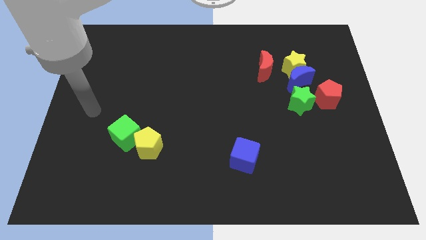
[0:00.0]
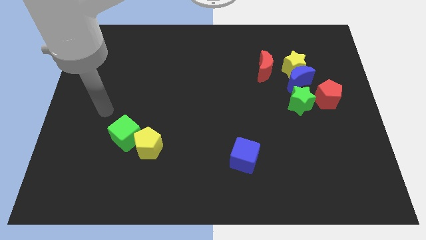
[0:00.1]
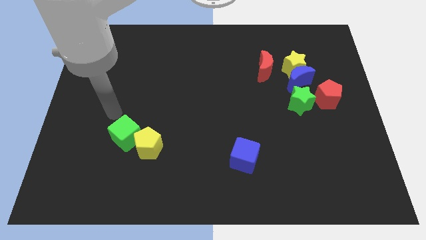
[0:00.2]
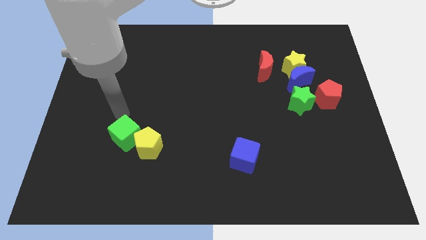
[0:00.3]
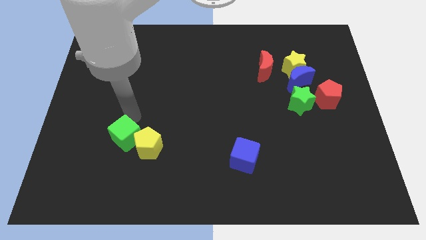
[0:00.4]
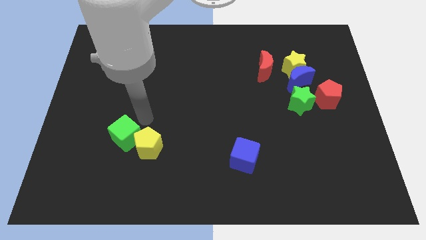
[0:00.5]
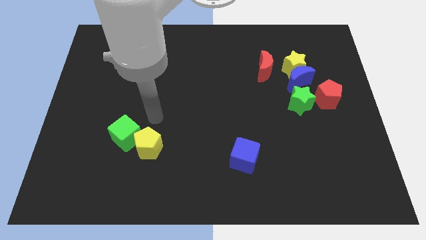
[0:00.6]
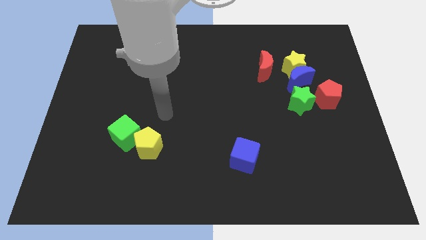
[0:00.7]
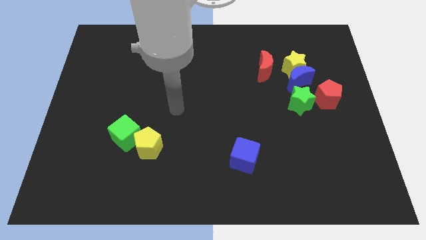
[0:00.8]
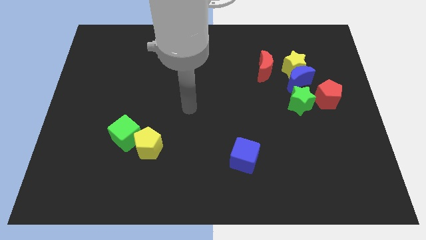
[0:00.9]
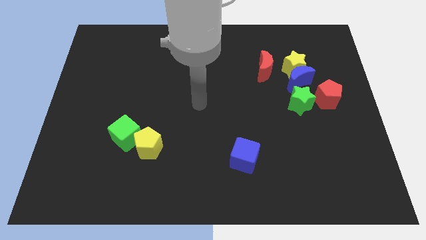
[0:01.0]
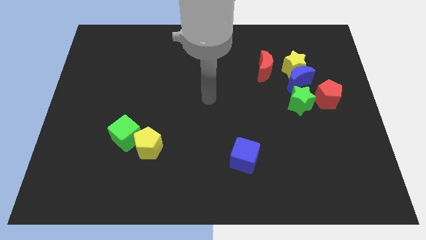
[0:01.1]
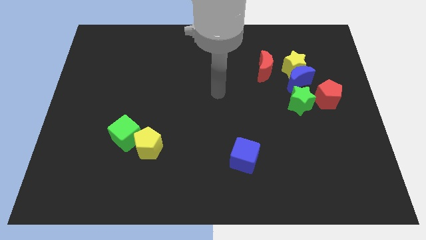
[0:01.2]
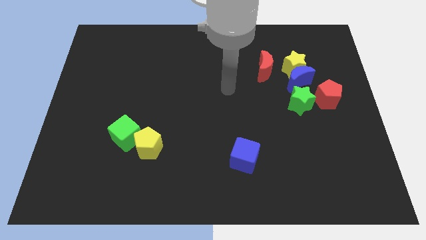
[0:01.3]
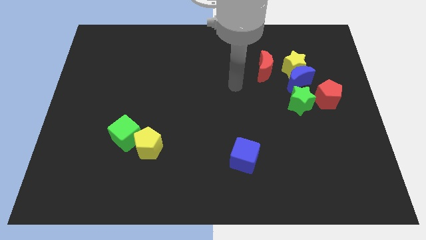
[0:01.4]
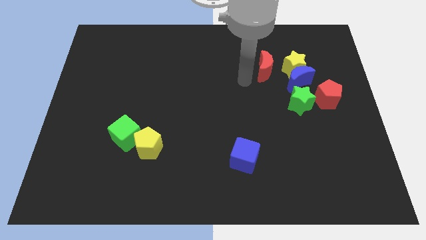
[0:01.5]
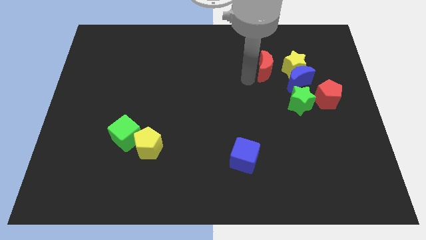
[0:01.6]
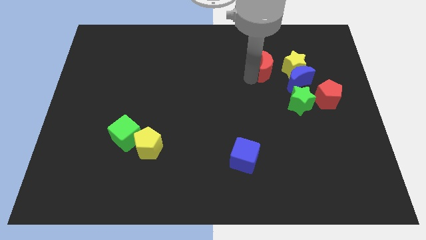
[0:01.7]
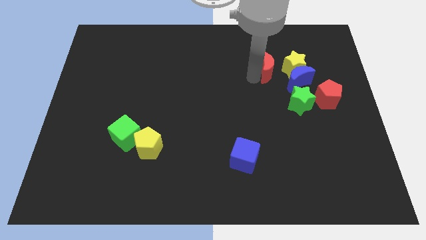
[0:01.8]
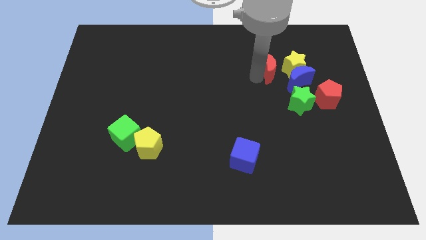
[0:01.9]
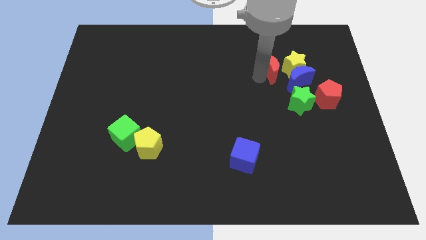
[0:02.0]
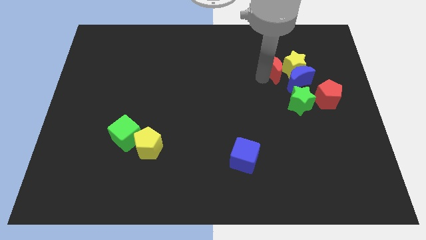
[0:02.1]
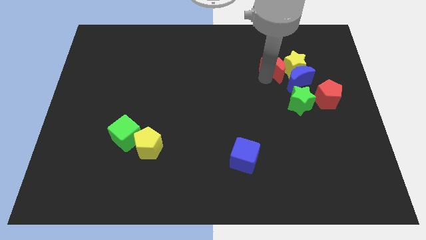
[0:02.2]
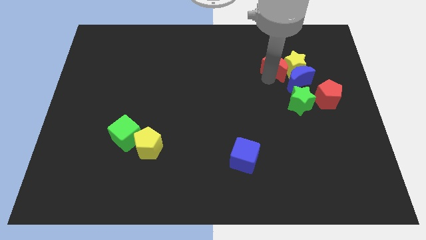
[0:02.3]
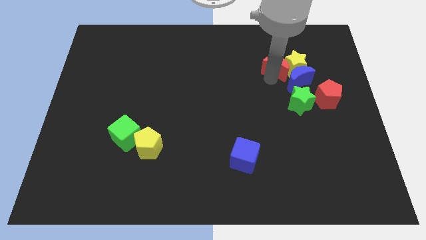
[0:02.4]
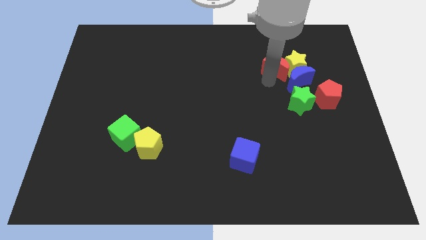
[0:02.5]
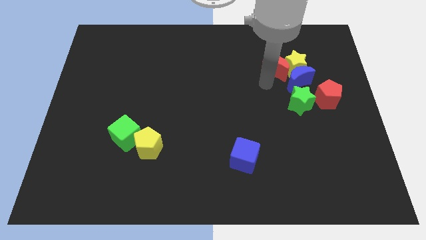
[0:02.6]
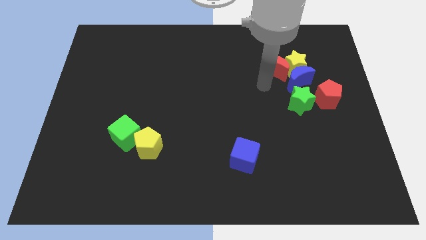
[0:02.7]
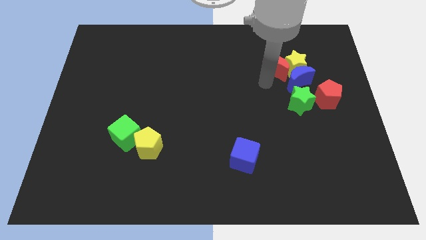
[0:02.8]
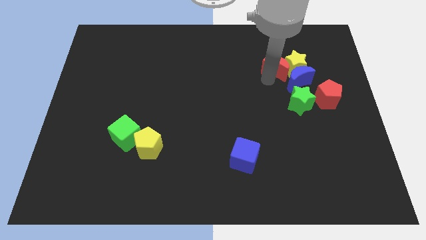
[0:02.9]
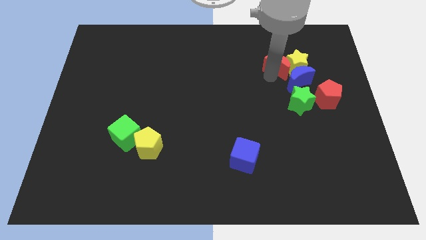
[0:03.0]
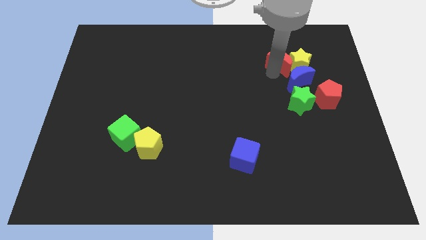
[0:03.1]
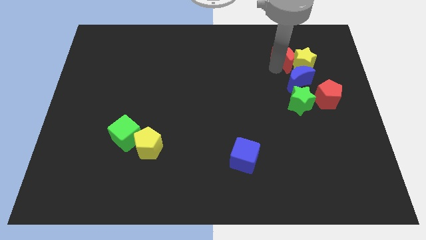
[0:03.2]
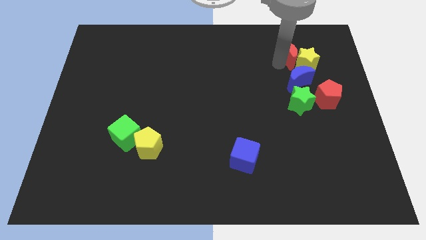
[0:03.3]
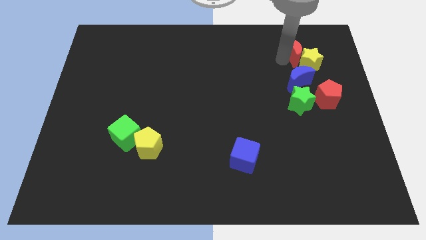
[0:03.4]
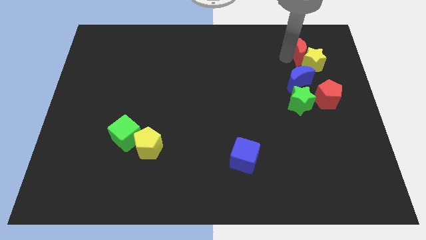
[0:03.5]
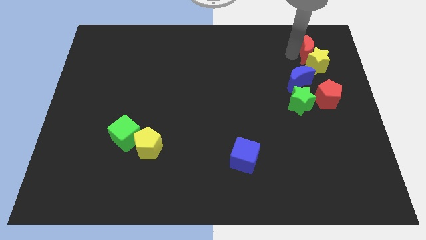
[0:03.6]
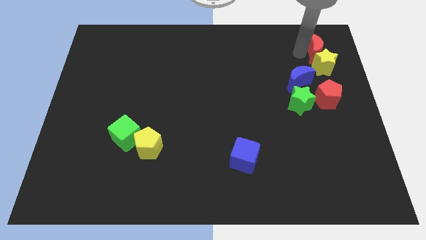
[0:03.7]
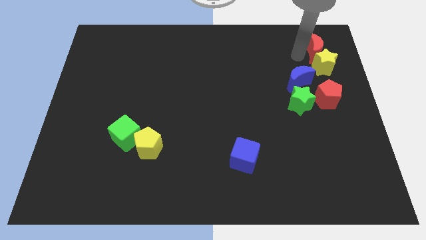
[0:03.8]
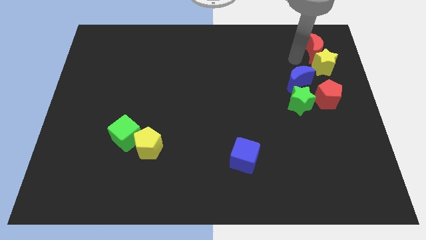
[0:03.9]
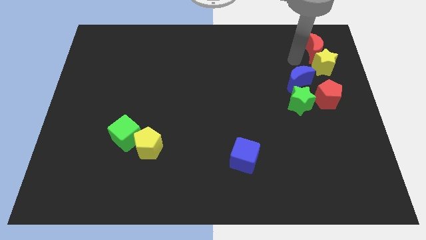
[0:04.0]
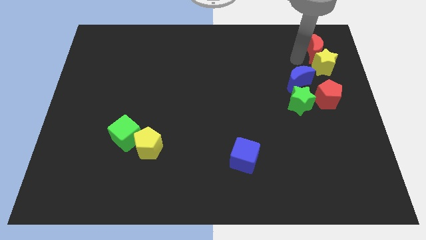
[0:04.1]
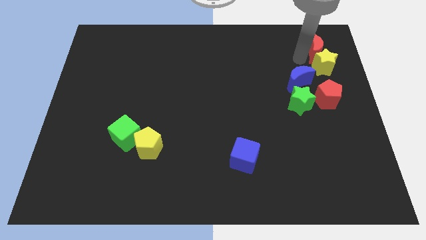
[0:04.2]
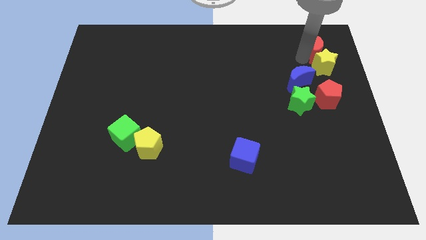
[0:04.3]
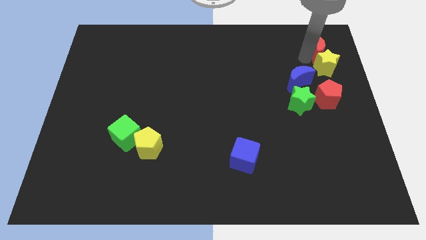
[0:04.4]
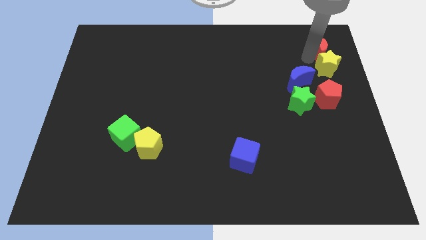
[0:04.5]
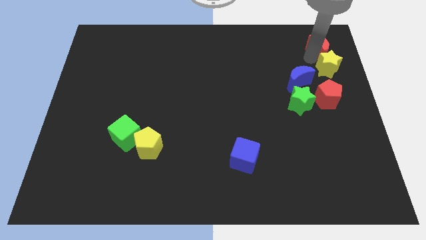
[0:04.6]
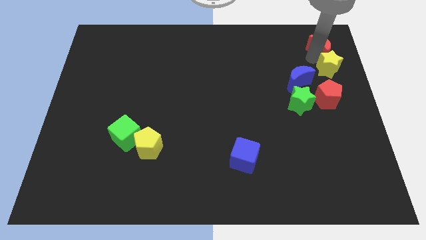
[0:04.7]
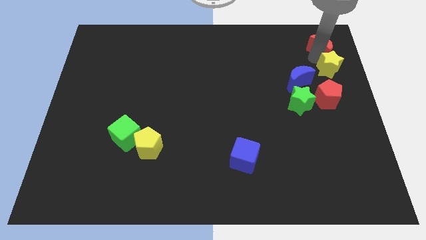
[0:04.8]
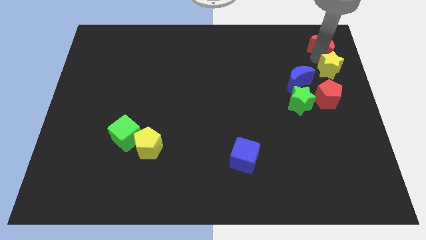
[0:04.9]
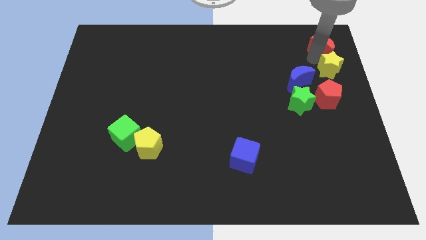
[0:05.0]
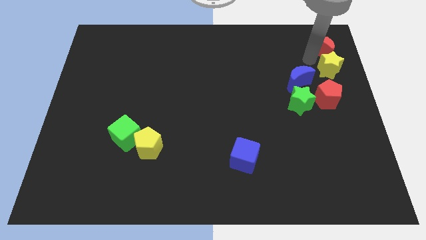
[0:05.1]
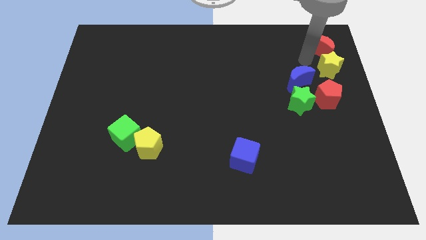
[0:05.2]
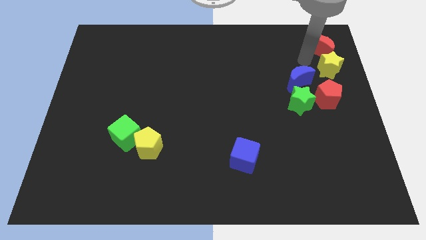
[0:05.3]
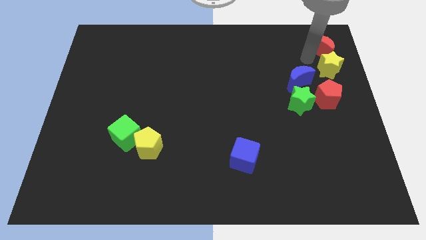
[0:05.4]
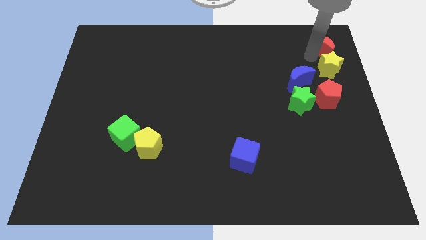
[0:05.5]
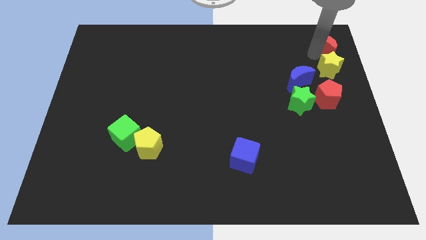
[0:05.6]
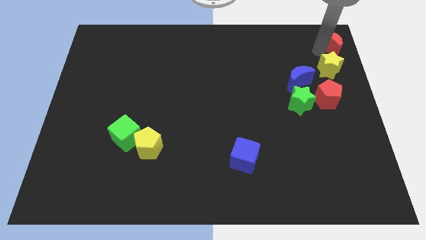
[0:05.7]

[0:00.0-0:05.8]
push the red moon to the top right corner
